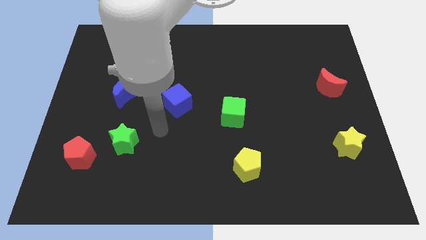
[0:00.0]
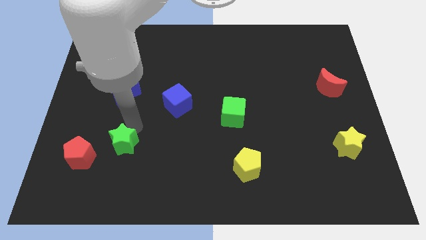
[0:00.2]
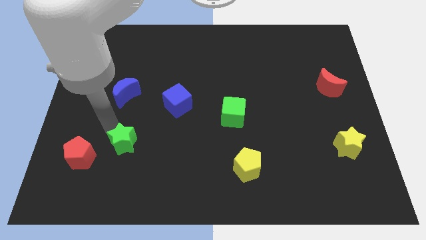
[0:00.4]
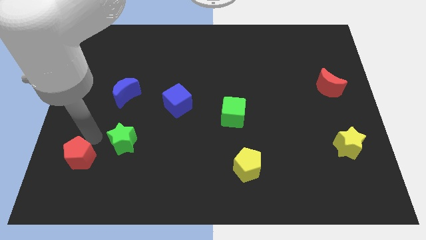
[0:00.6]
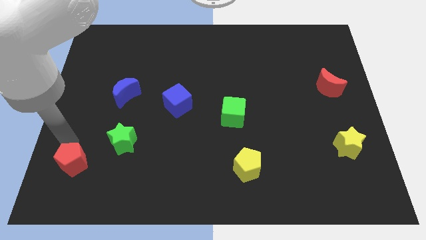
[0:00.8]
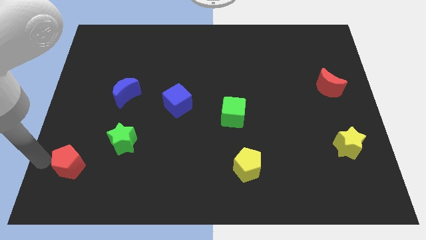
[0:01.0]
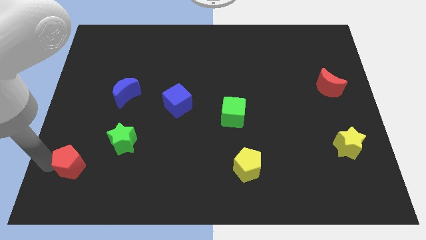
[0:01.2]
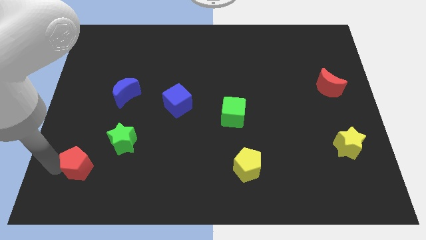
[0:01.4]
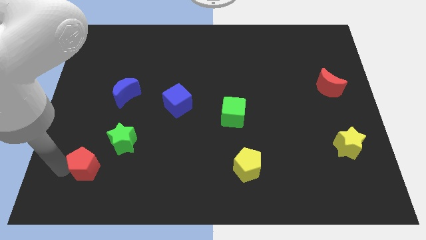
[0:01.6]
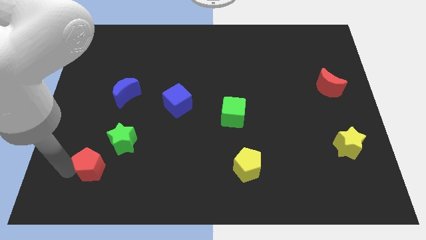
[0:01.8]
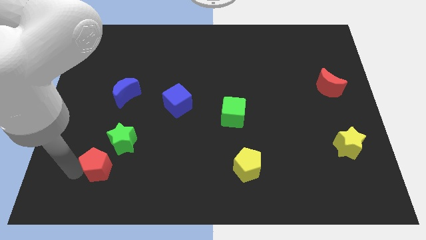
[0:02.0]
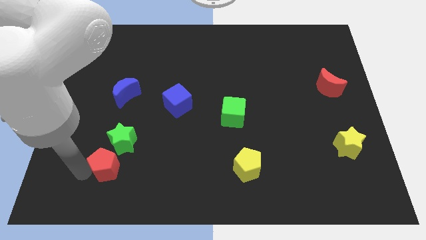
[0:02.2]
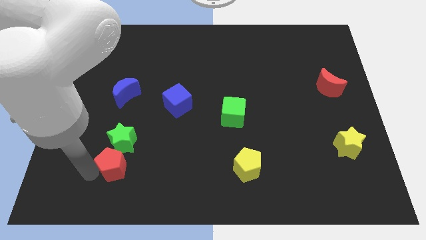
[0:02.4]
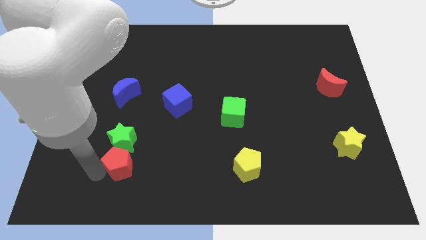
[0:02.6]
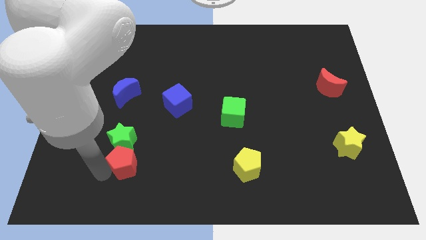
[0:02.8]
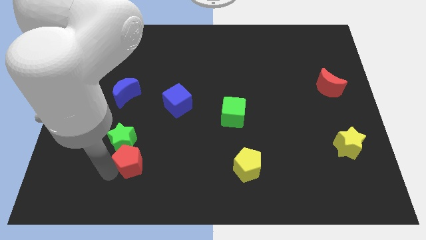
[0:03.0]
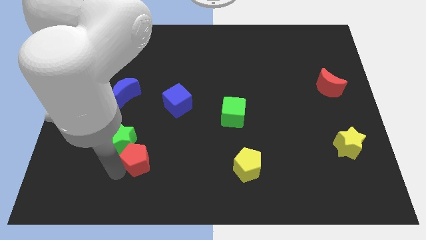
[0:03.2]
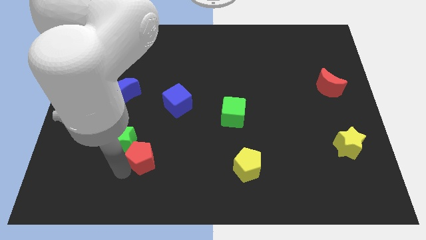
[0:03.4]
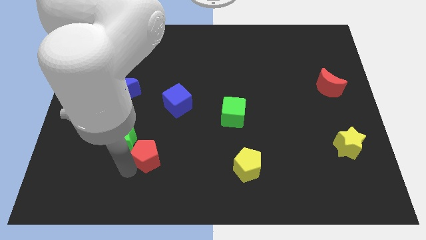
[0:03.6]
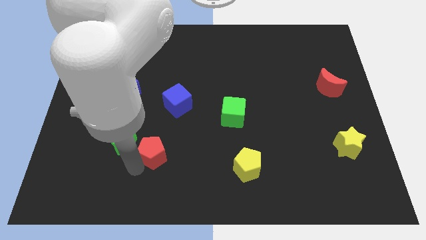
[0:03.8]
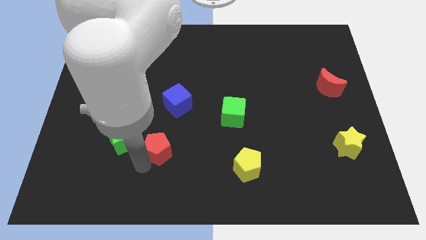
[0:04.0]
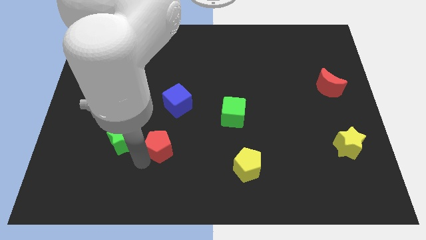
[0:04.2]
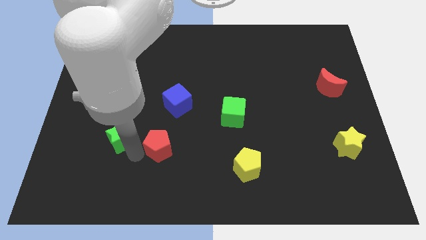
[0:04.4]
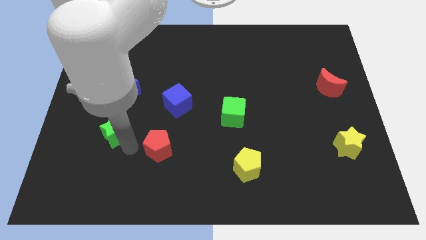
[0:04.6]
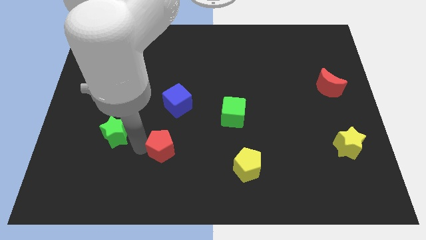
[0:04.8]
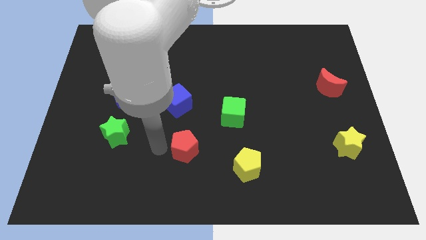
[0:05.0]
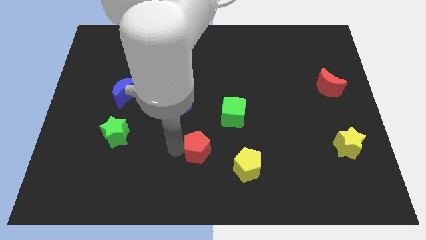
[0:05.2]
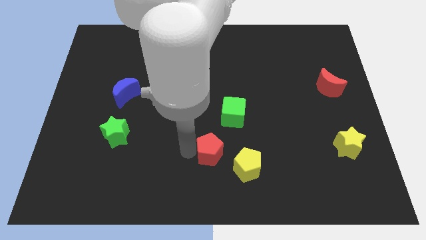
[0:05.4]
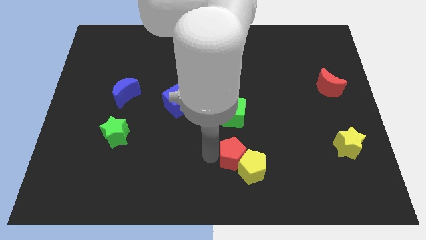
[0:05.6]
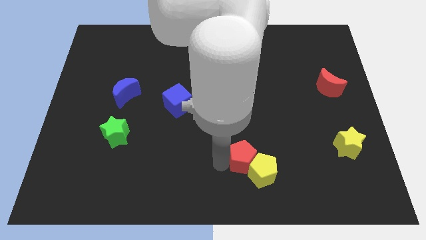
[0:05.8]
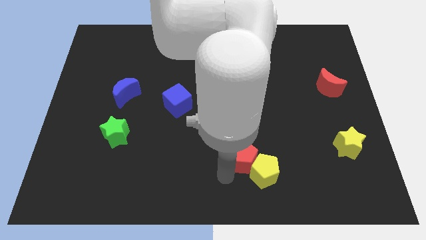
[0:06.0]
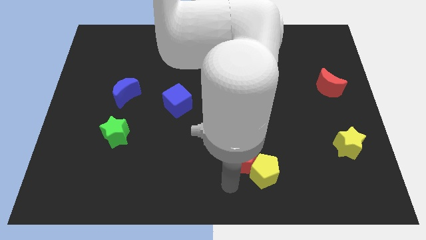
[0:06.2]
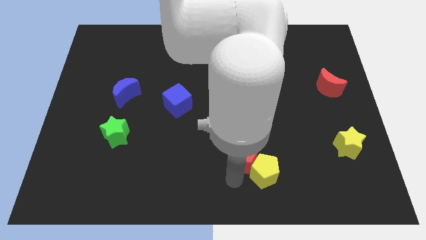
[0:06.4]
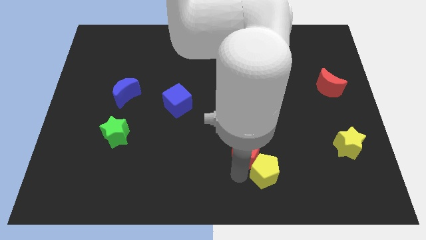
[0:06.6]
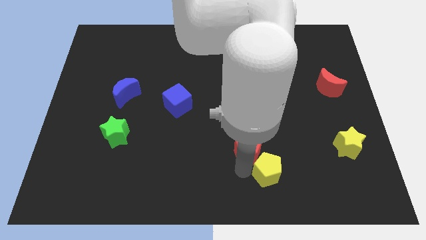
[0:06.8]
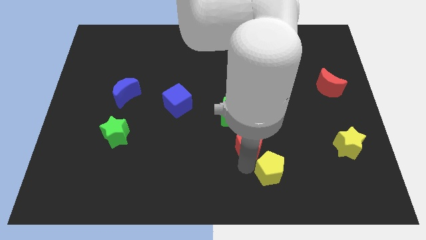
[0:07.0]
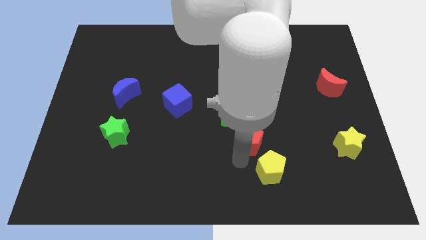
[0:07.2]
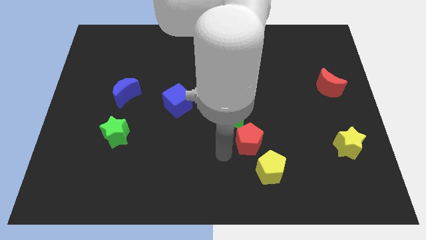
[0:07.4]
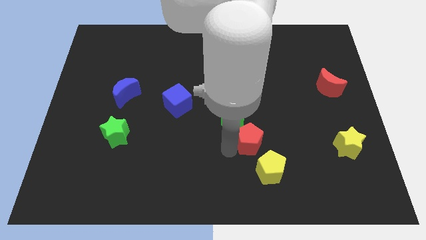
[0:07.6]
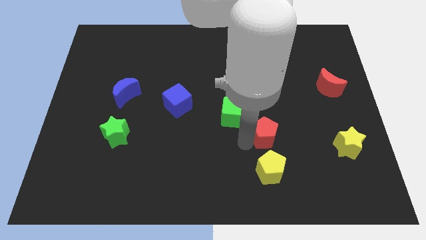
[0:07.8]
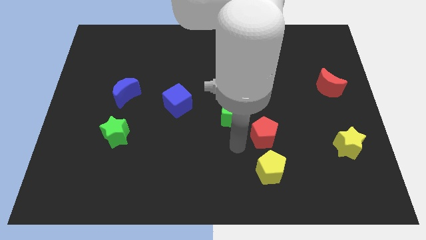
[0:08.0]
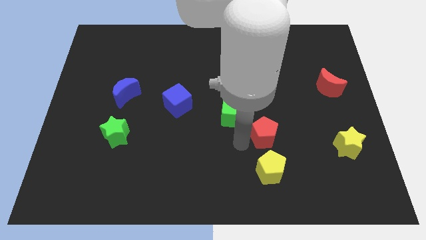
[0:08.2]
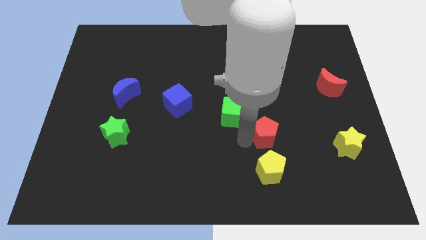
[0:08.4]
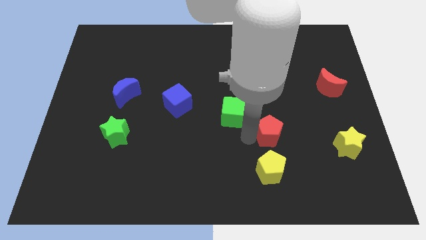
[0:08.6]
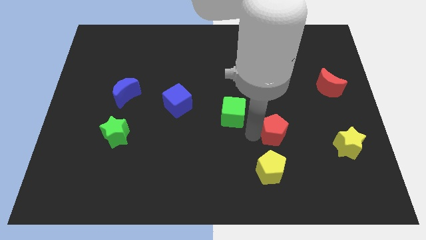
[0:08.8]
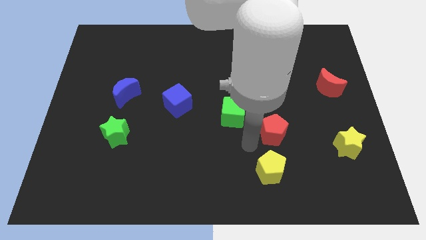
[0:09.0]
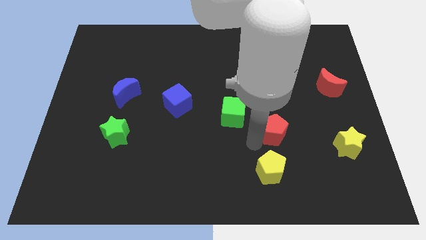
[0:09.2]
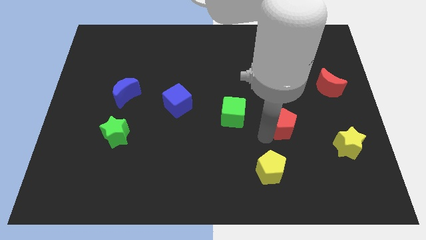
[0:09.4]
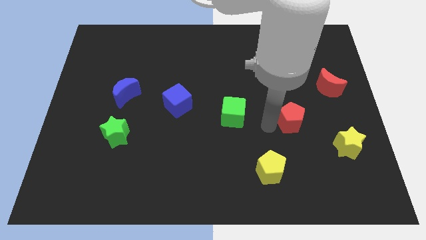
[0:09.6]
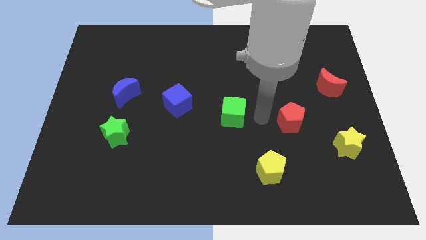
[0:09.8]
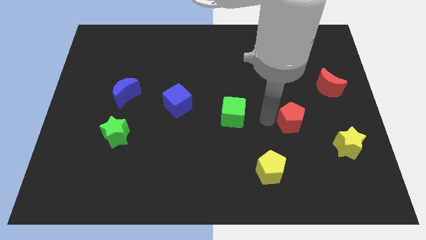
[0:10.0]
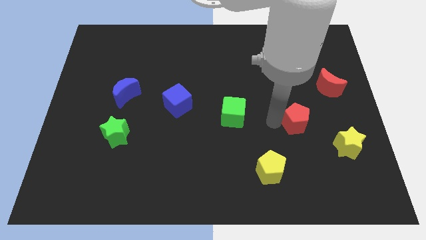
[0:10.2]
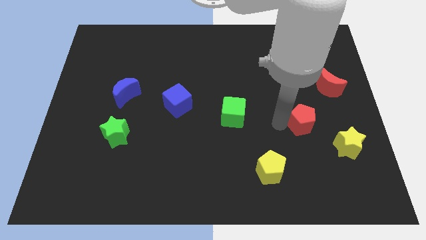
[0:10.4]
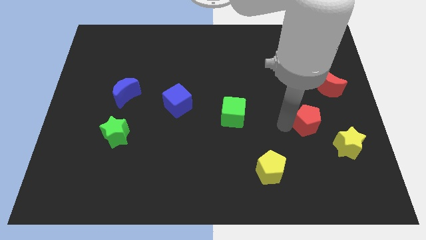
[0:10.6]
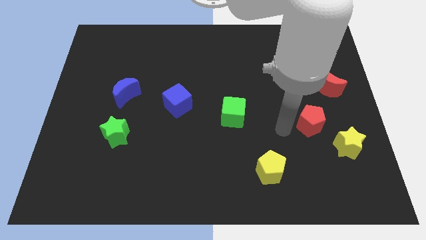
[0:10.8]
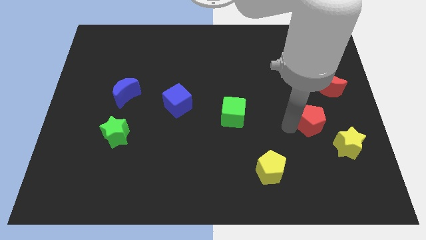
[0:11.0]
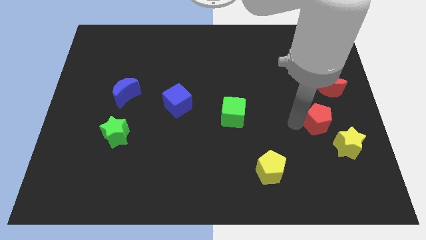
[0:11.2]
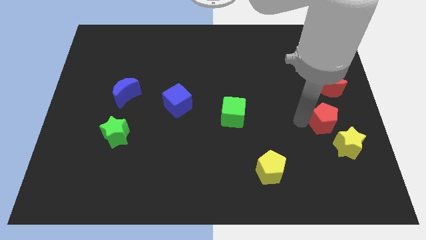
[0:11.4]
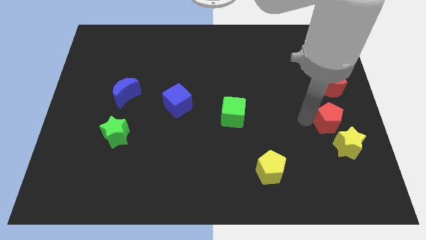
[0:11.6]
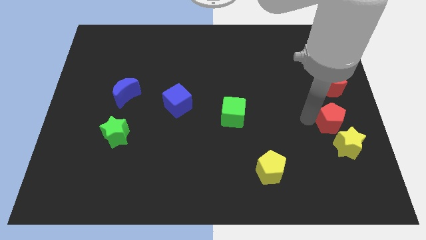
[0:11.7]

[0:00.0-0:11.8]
slide the red pentagon to the right side of the board

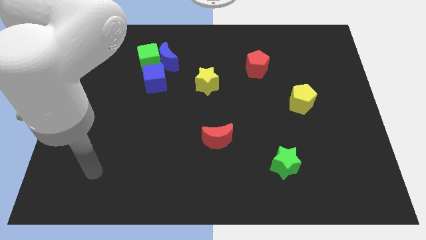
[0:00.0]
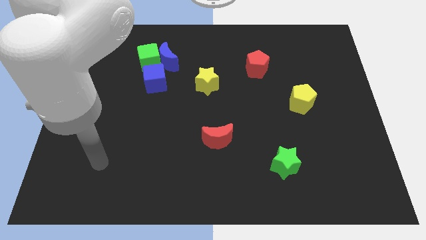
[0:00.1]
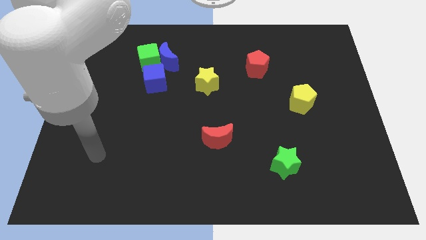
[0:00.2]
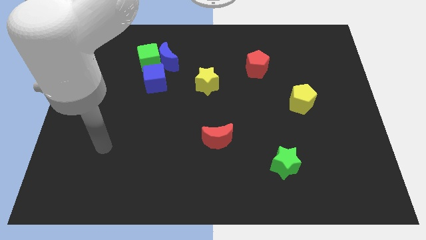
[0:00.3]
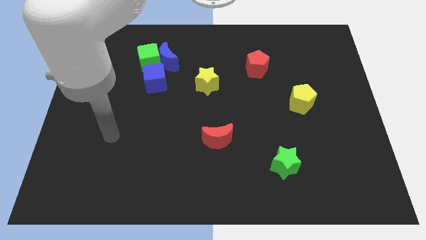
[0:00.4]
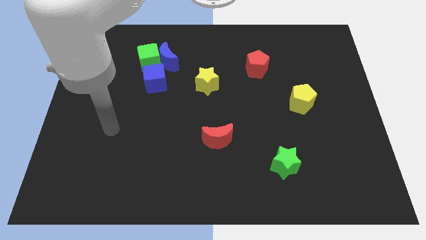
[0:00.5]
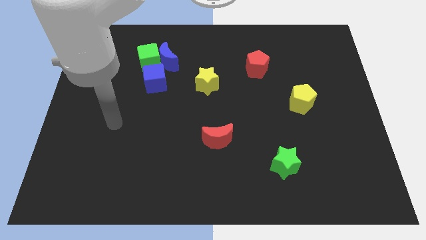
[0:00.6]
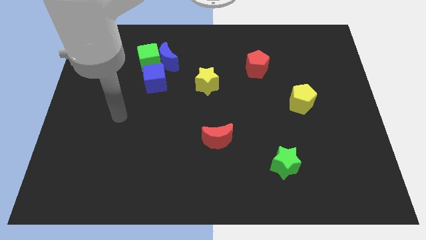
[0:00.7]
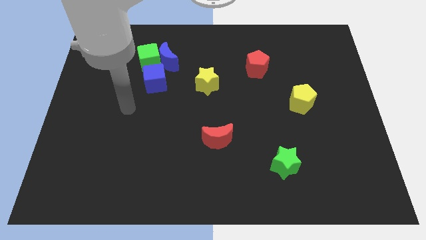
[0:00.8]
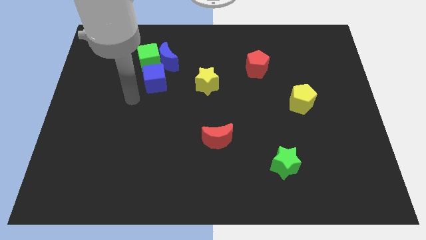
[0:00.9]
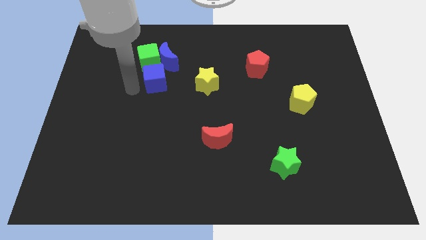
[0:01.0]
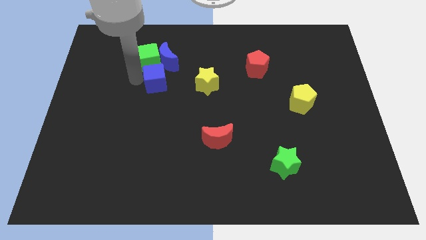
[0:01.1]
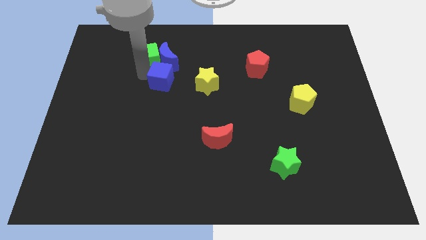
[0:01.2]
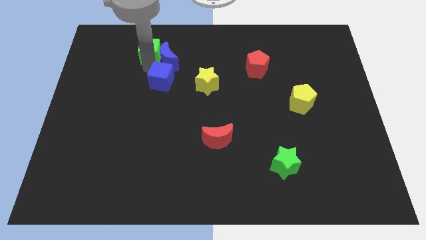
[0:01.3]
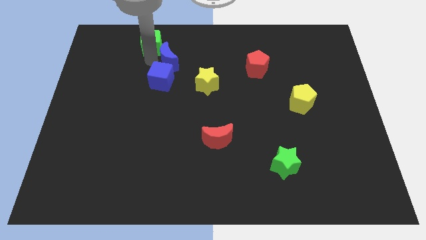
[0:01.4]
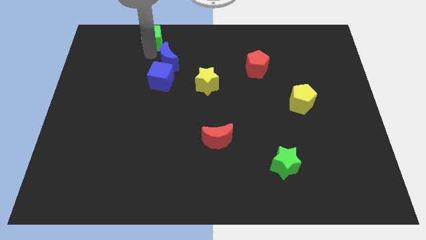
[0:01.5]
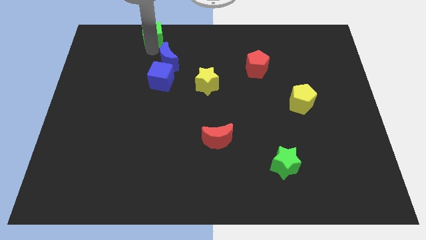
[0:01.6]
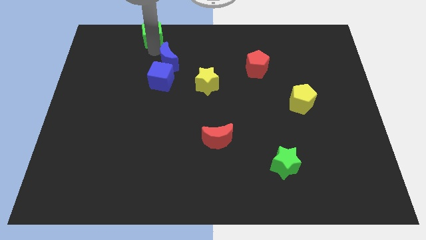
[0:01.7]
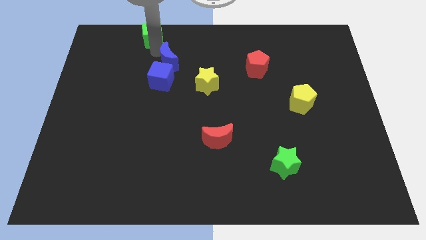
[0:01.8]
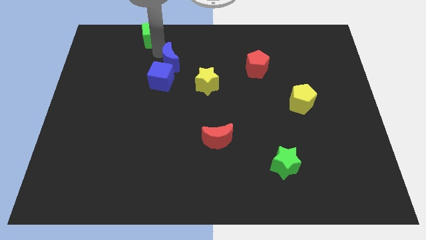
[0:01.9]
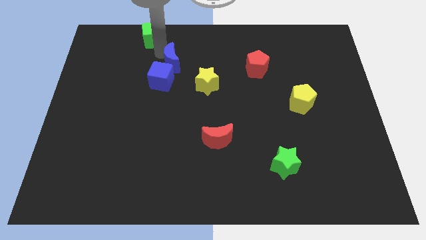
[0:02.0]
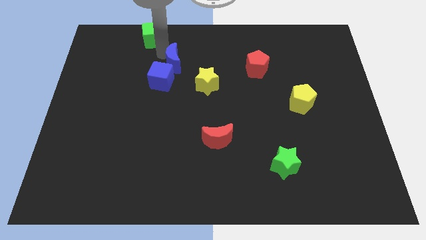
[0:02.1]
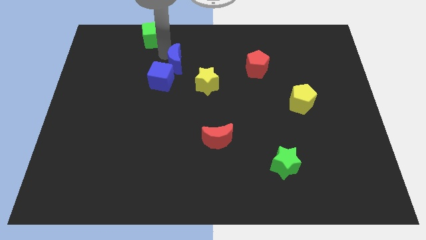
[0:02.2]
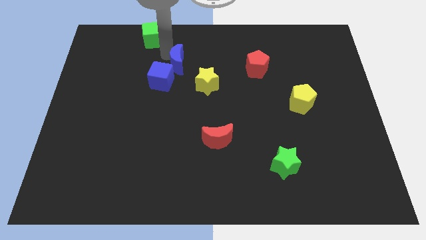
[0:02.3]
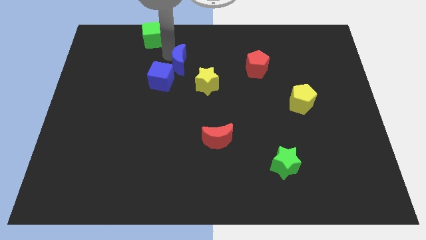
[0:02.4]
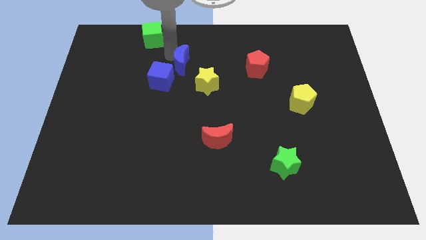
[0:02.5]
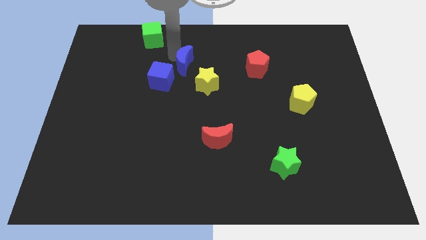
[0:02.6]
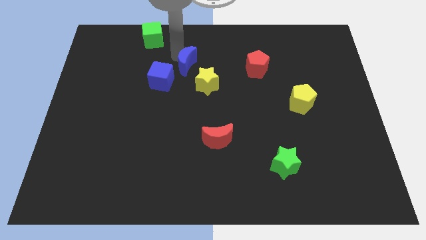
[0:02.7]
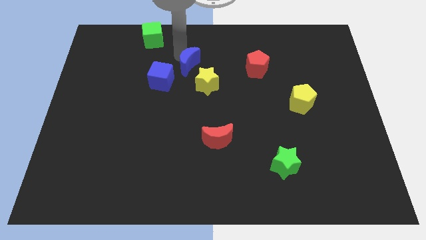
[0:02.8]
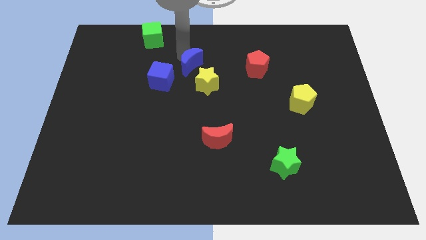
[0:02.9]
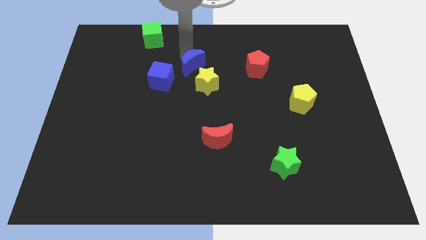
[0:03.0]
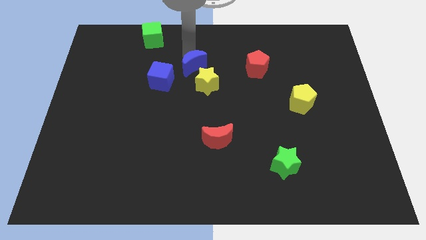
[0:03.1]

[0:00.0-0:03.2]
move the blue moon to the center of the board
